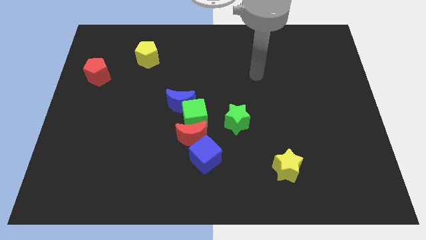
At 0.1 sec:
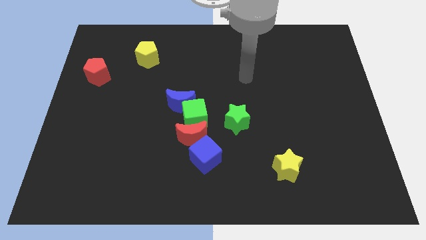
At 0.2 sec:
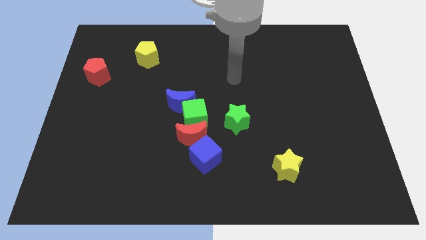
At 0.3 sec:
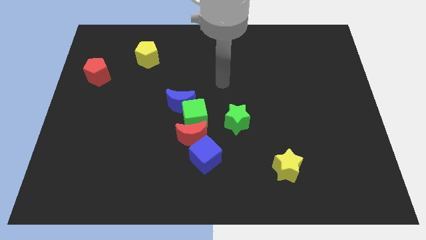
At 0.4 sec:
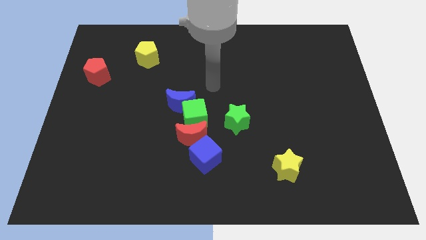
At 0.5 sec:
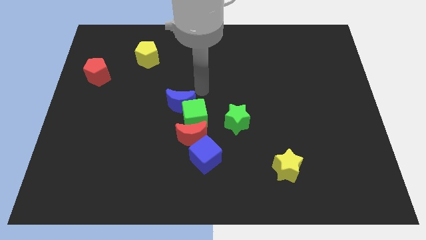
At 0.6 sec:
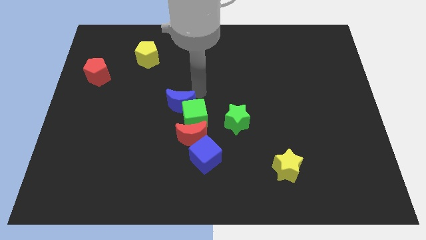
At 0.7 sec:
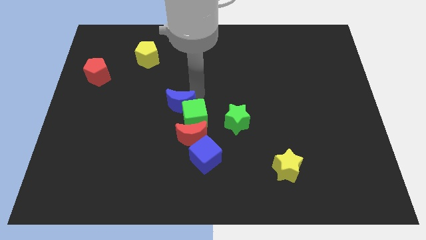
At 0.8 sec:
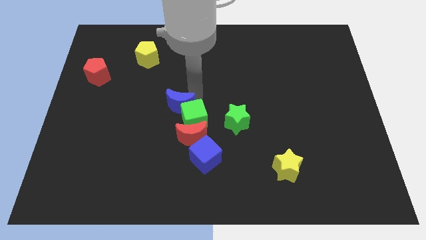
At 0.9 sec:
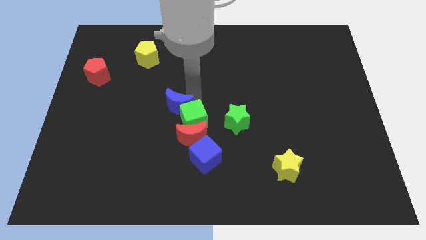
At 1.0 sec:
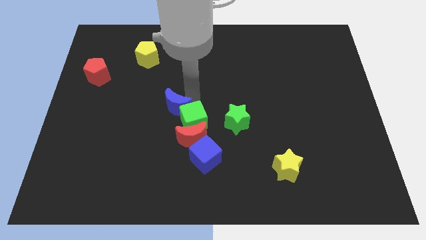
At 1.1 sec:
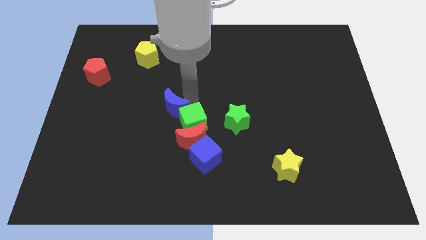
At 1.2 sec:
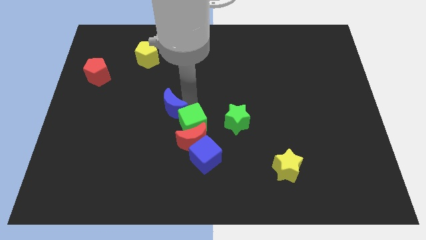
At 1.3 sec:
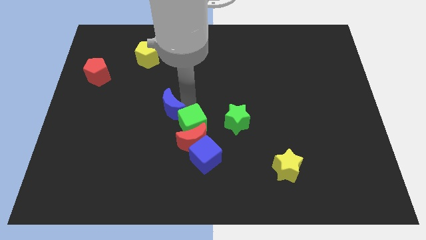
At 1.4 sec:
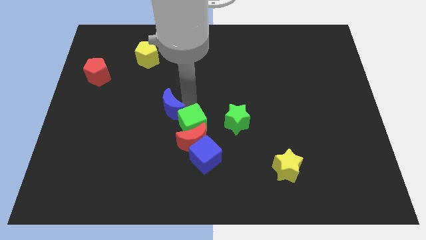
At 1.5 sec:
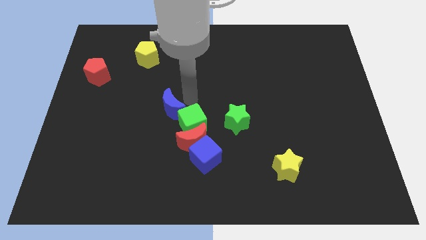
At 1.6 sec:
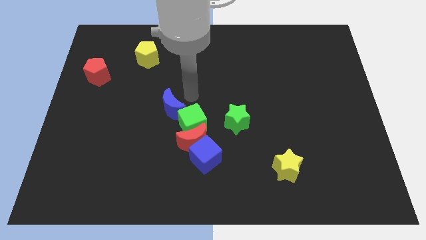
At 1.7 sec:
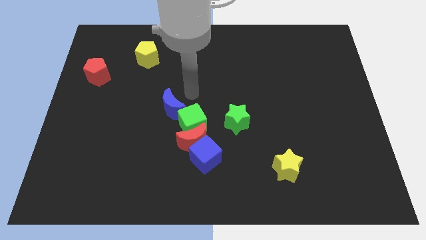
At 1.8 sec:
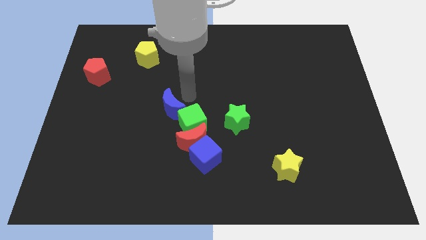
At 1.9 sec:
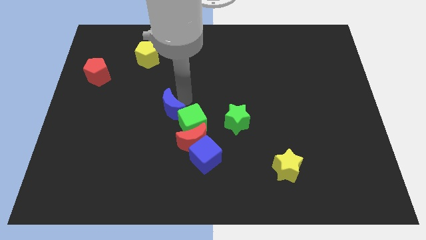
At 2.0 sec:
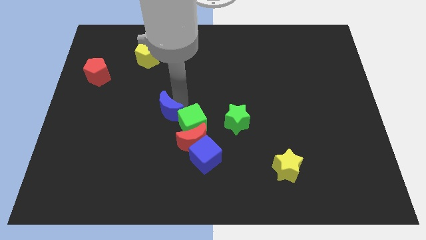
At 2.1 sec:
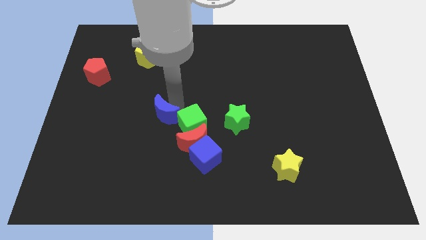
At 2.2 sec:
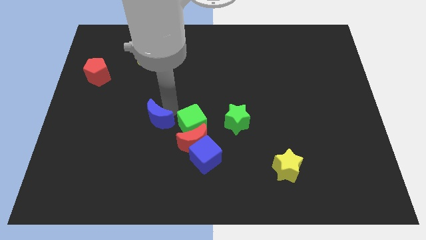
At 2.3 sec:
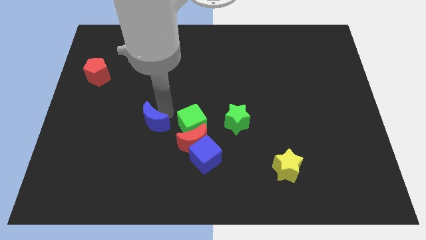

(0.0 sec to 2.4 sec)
slide the blue moon downwards and to the left a bit

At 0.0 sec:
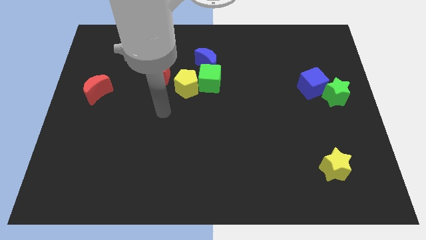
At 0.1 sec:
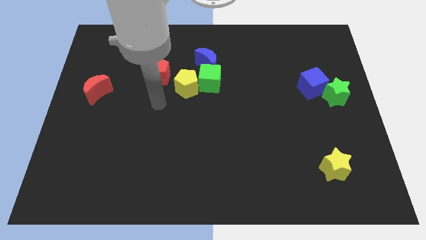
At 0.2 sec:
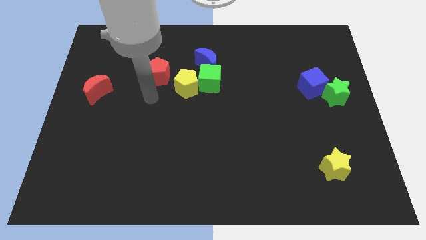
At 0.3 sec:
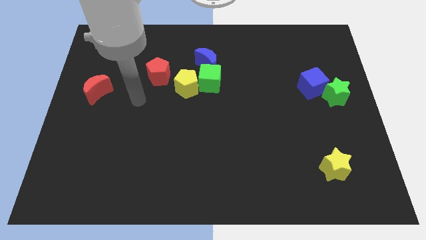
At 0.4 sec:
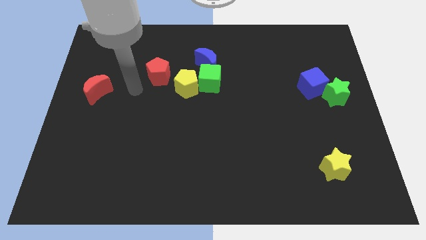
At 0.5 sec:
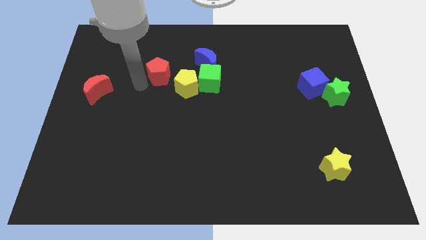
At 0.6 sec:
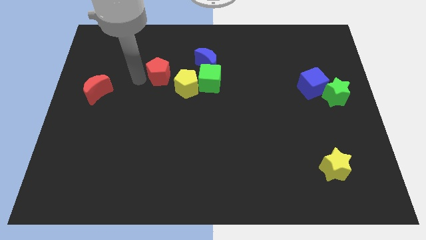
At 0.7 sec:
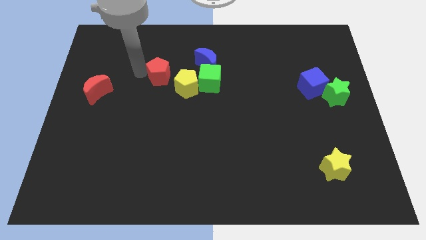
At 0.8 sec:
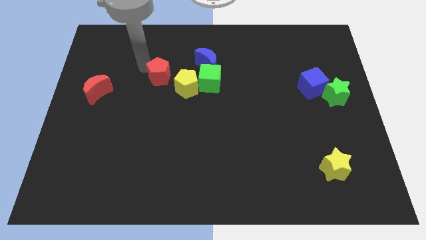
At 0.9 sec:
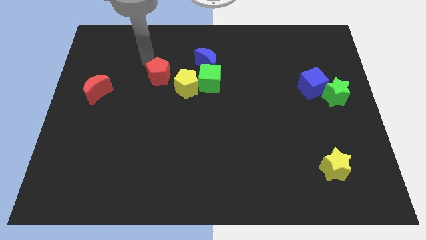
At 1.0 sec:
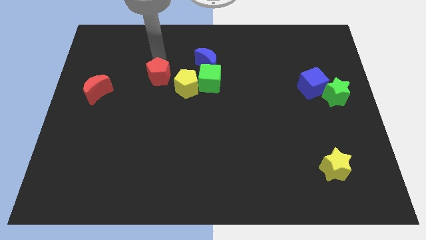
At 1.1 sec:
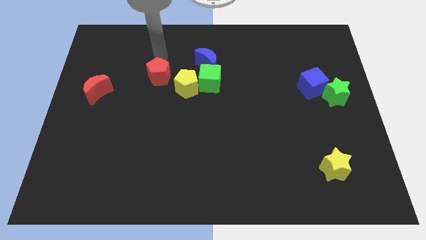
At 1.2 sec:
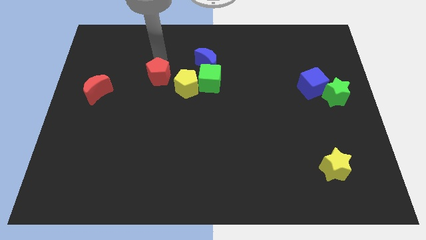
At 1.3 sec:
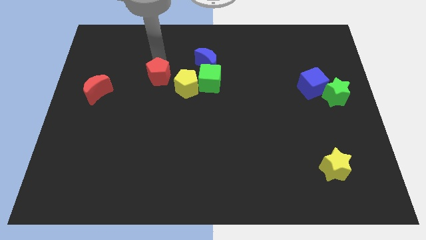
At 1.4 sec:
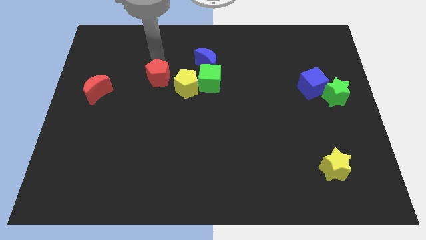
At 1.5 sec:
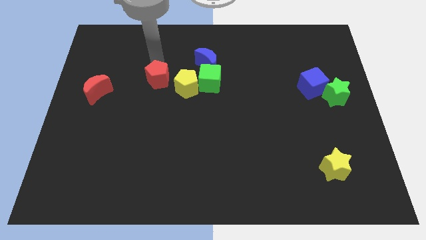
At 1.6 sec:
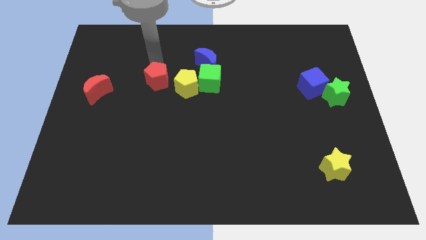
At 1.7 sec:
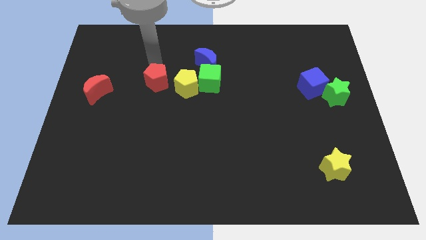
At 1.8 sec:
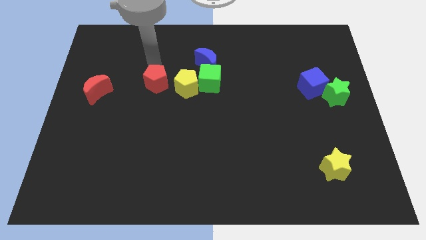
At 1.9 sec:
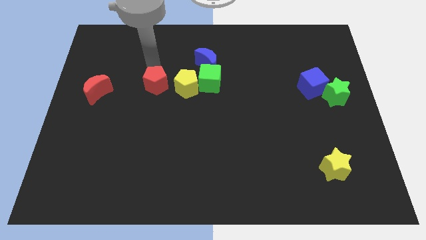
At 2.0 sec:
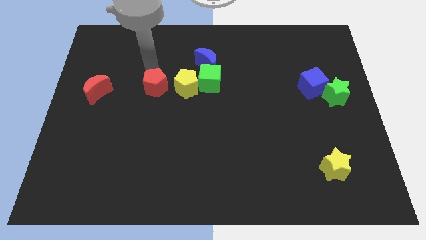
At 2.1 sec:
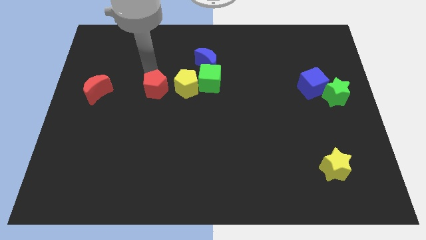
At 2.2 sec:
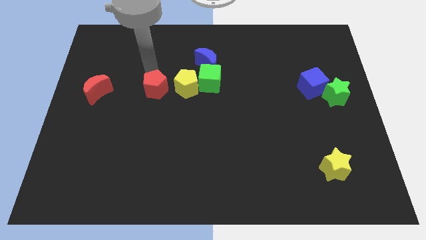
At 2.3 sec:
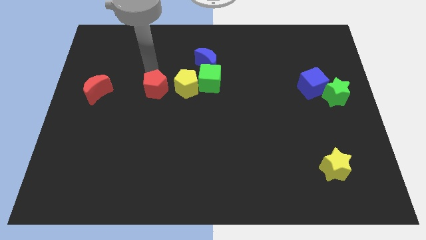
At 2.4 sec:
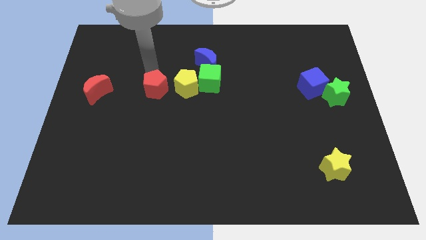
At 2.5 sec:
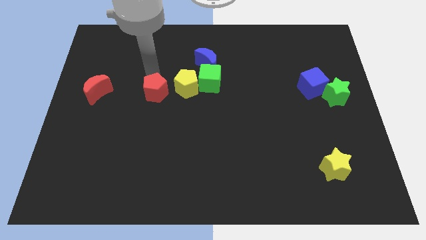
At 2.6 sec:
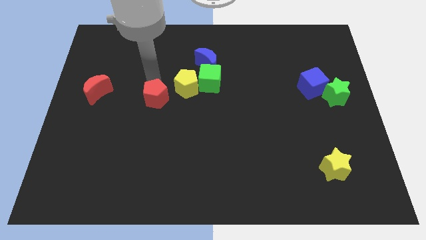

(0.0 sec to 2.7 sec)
slide the red pentagon down a little

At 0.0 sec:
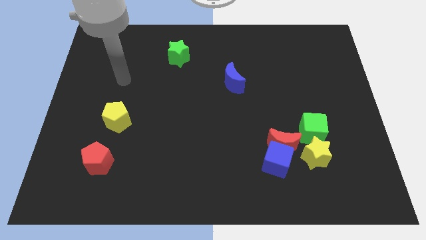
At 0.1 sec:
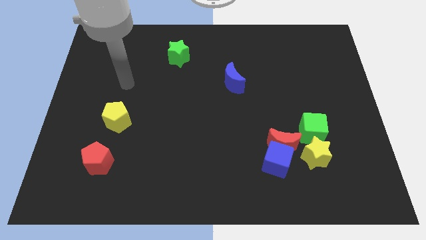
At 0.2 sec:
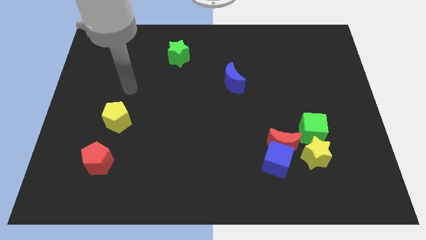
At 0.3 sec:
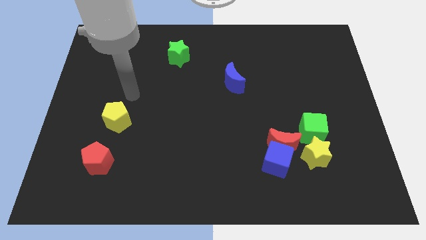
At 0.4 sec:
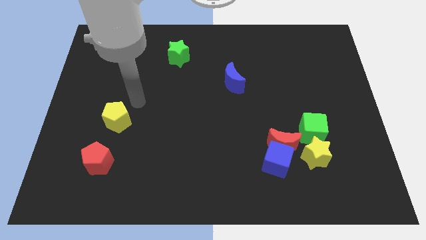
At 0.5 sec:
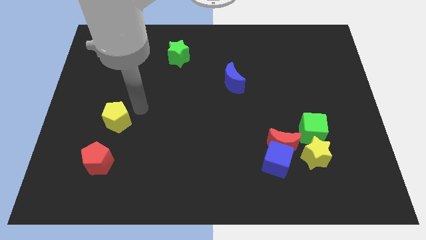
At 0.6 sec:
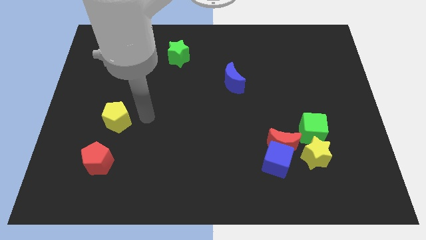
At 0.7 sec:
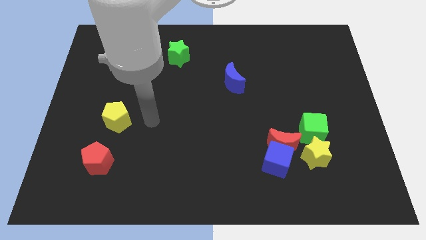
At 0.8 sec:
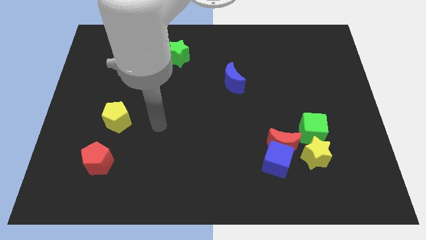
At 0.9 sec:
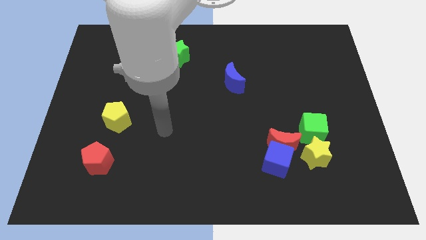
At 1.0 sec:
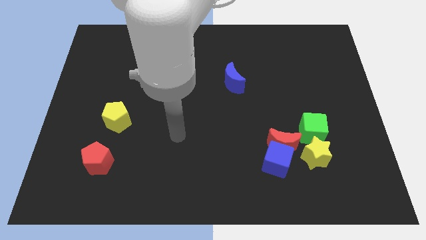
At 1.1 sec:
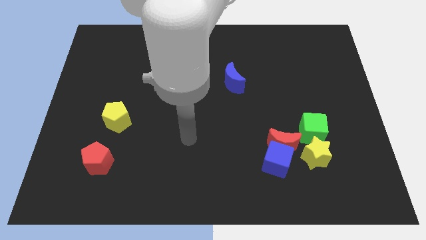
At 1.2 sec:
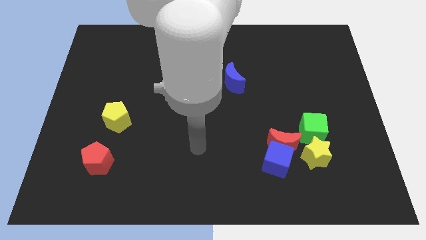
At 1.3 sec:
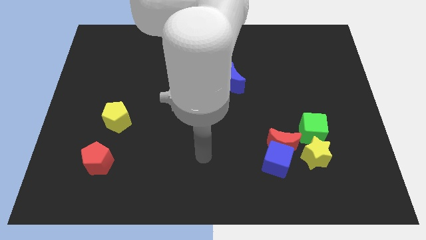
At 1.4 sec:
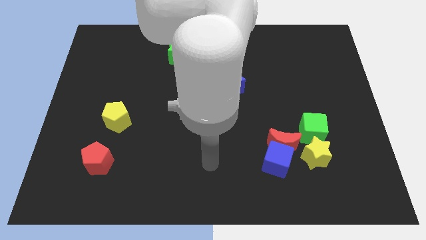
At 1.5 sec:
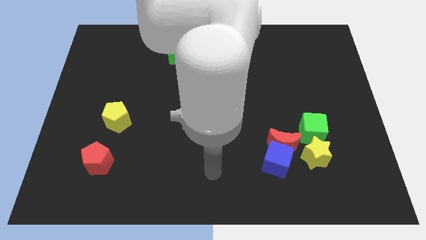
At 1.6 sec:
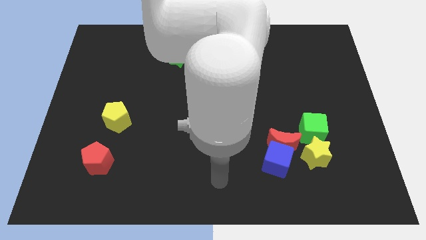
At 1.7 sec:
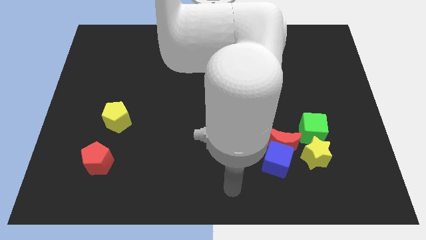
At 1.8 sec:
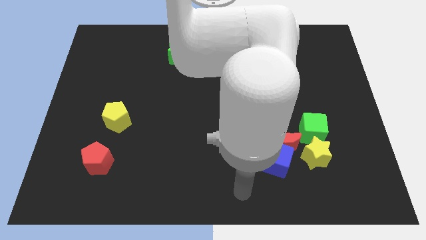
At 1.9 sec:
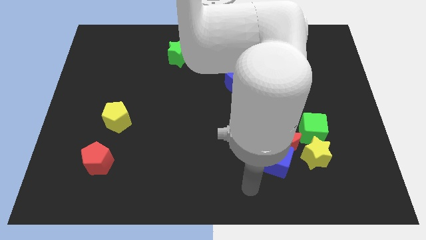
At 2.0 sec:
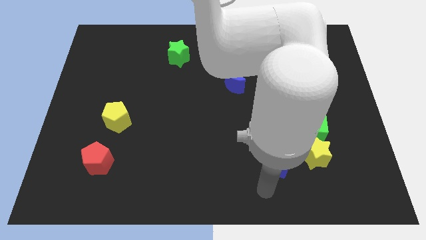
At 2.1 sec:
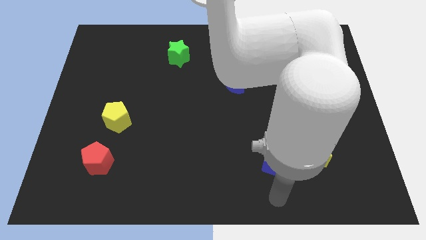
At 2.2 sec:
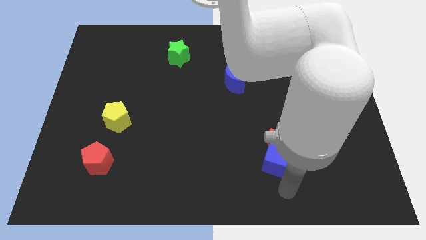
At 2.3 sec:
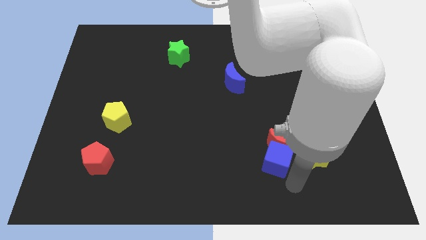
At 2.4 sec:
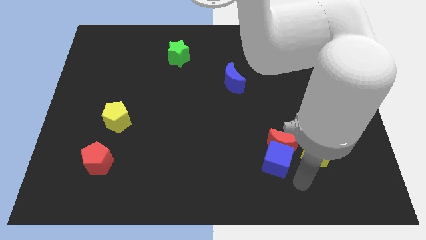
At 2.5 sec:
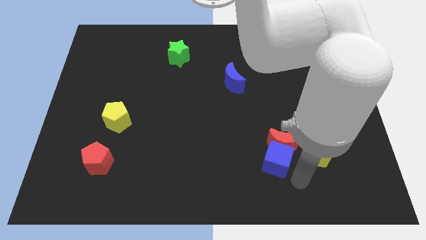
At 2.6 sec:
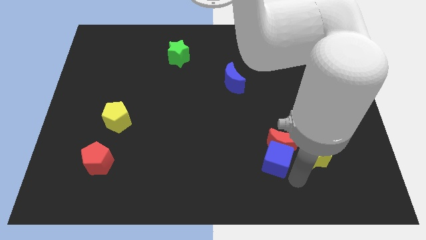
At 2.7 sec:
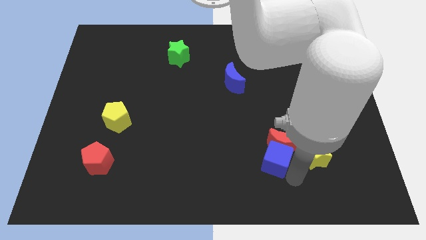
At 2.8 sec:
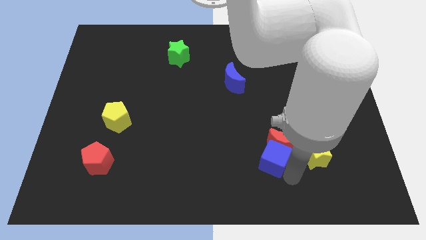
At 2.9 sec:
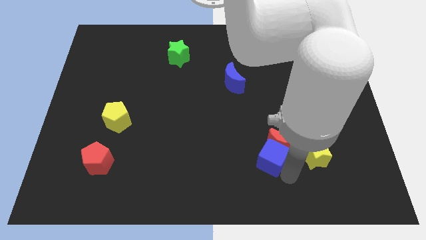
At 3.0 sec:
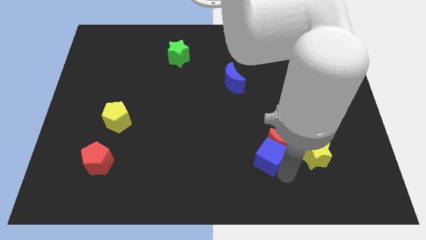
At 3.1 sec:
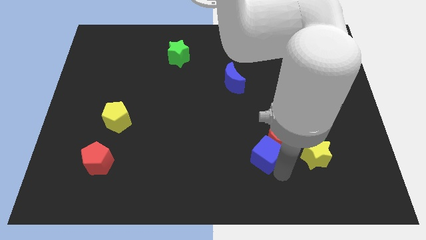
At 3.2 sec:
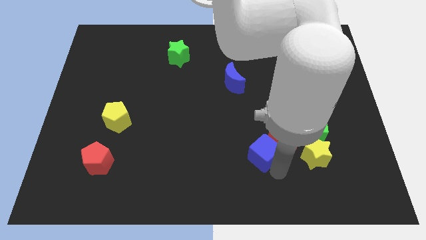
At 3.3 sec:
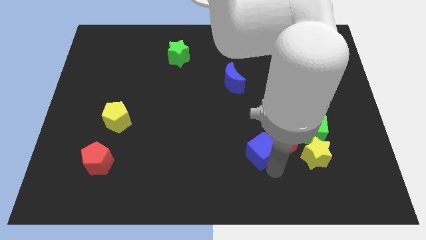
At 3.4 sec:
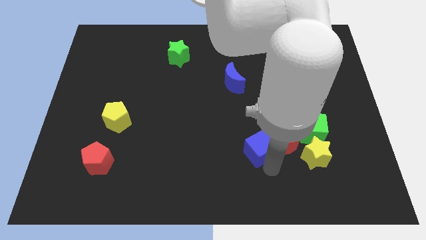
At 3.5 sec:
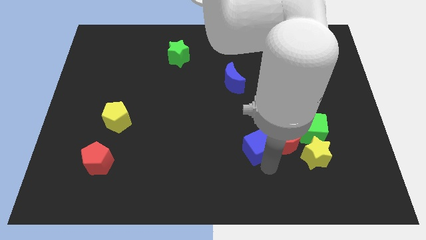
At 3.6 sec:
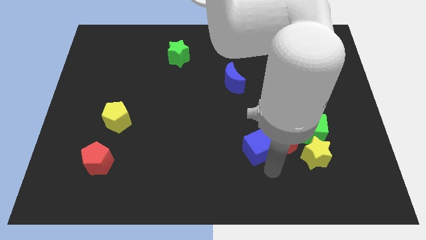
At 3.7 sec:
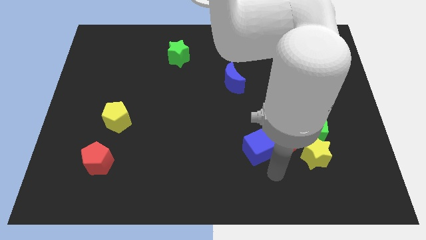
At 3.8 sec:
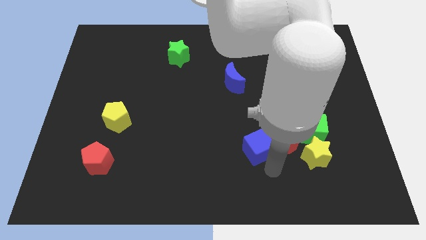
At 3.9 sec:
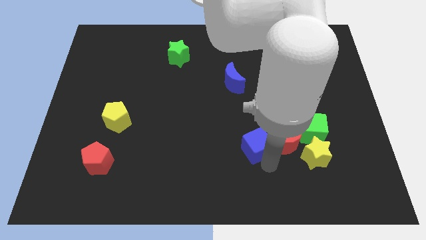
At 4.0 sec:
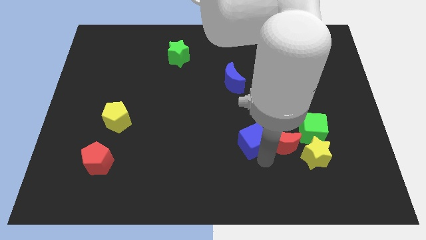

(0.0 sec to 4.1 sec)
move the blue cube diagonally upwards and to the left a little
